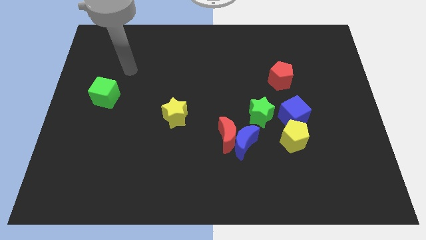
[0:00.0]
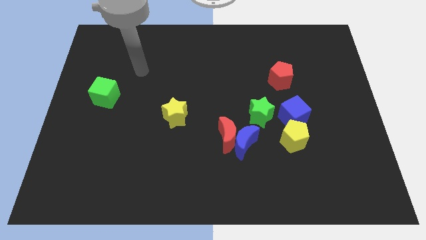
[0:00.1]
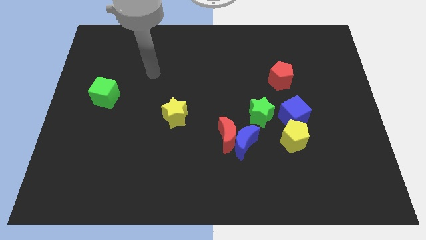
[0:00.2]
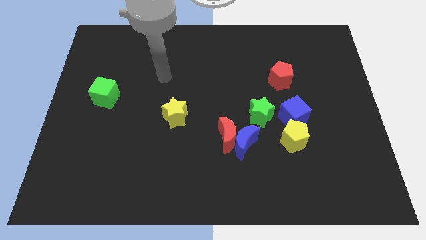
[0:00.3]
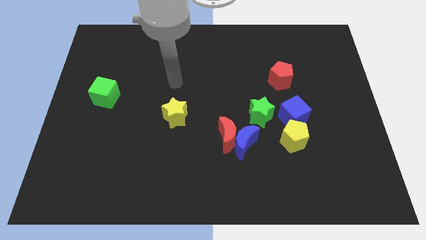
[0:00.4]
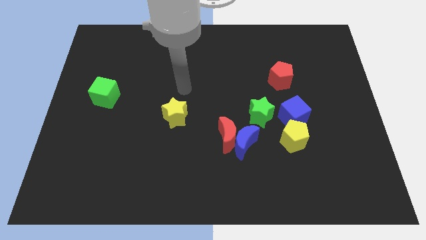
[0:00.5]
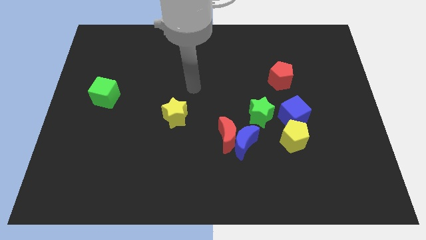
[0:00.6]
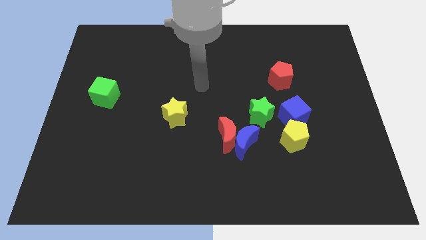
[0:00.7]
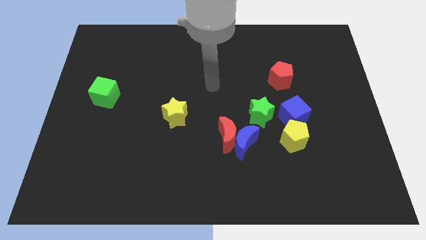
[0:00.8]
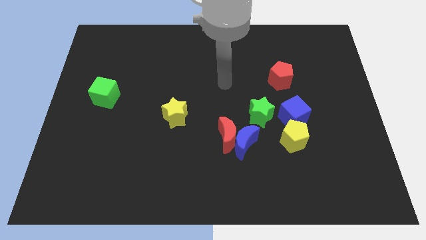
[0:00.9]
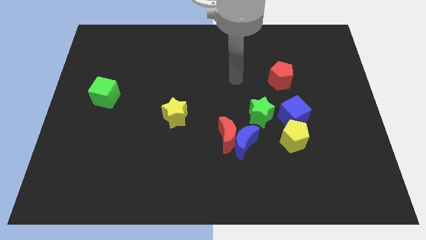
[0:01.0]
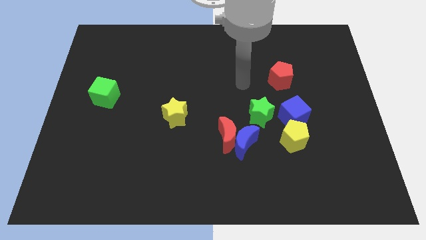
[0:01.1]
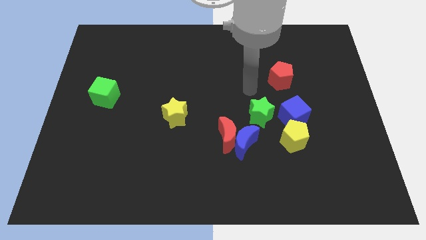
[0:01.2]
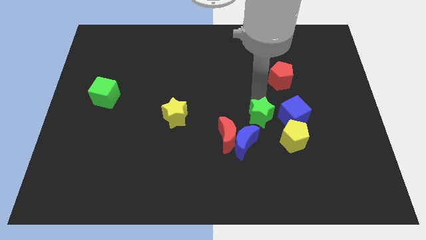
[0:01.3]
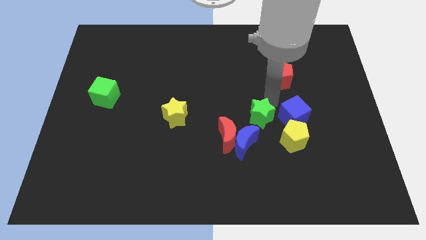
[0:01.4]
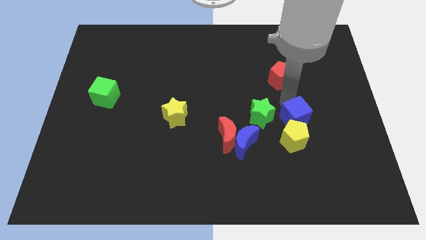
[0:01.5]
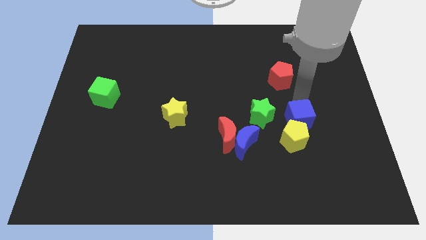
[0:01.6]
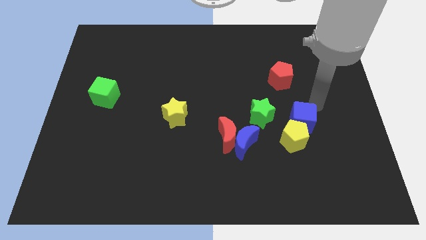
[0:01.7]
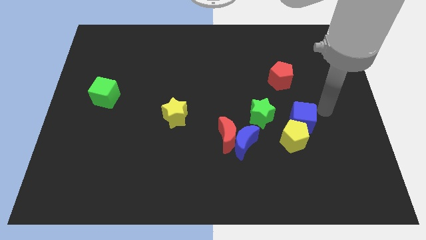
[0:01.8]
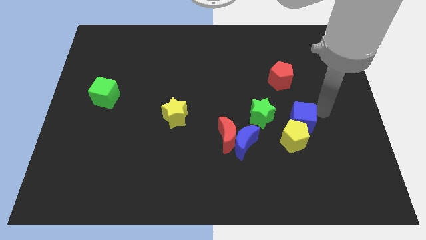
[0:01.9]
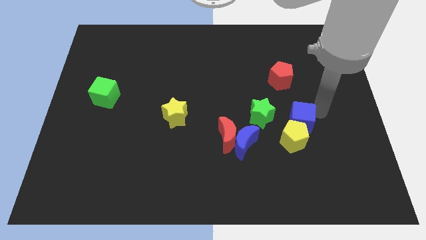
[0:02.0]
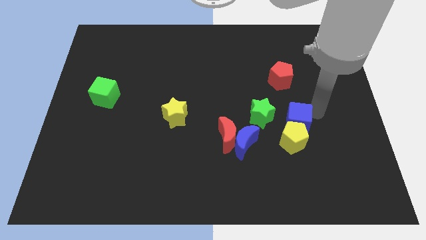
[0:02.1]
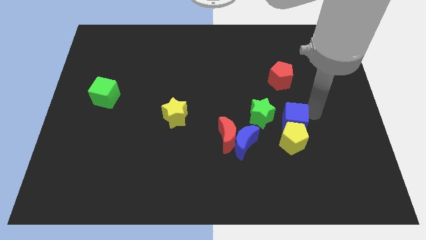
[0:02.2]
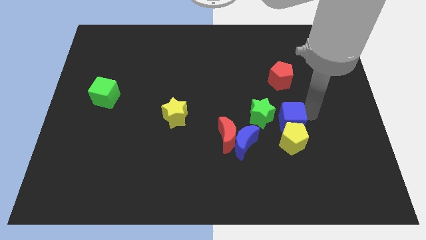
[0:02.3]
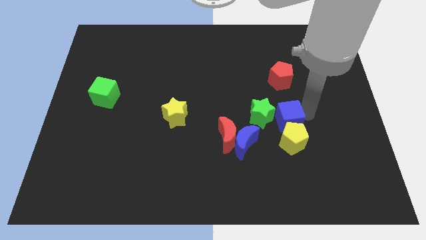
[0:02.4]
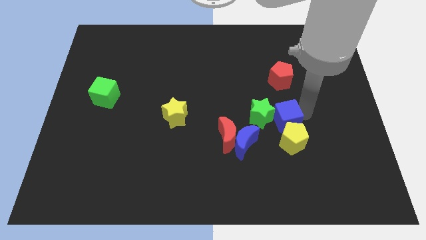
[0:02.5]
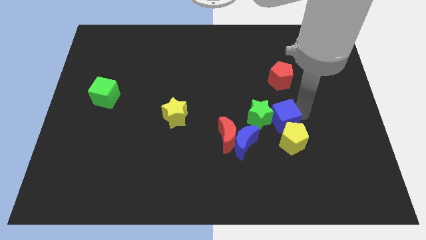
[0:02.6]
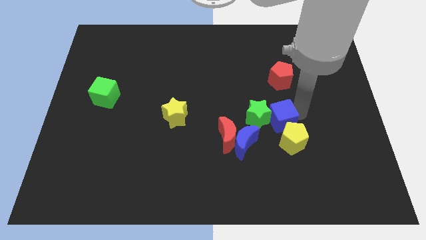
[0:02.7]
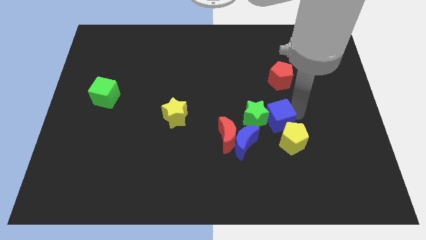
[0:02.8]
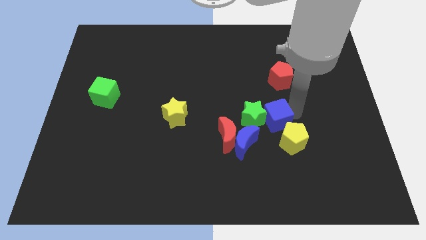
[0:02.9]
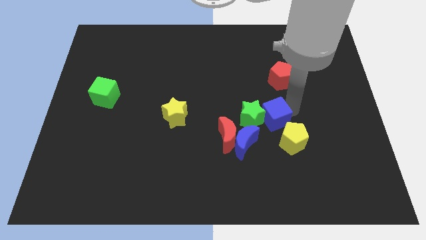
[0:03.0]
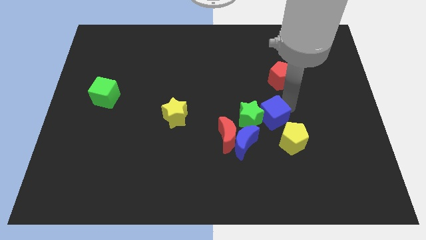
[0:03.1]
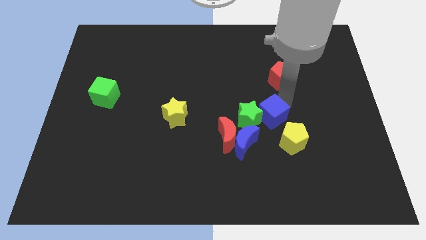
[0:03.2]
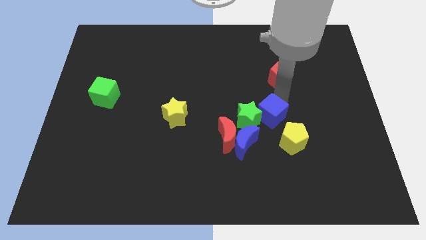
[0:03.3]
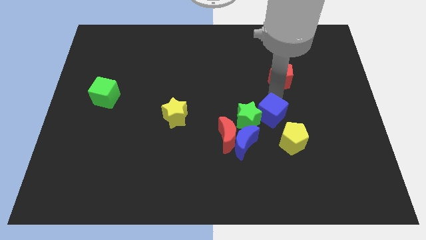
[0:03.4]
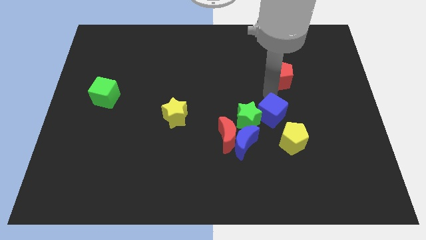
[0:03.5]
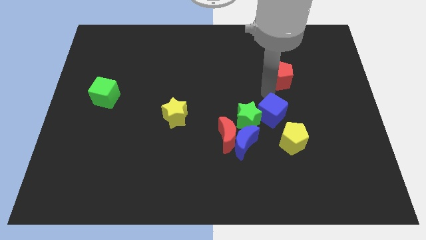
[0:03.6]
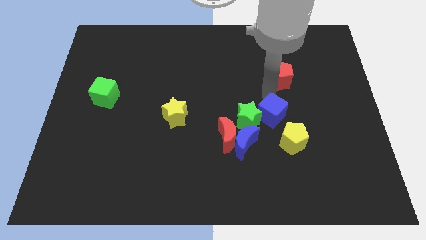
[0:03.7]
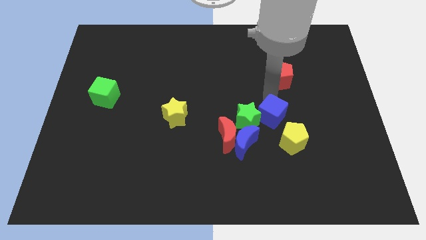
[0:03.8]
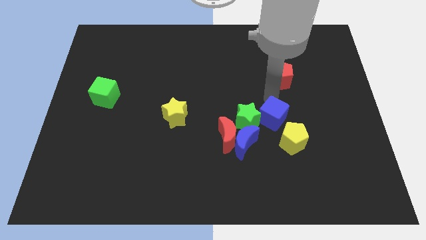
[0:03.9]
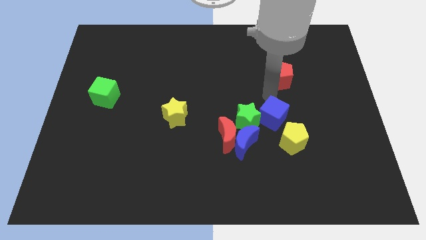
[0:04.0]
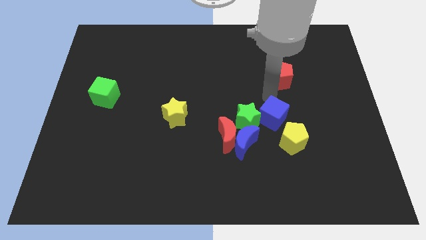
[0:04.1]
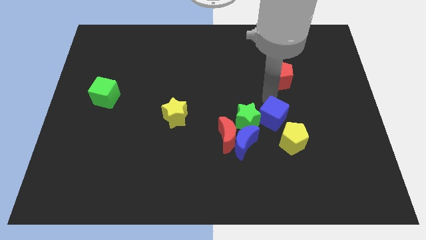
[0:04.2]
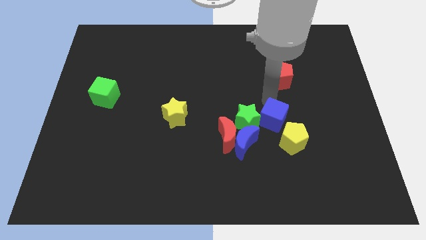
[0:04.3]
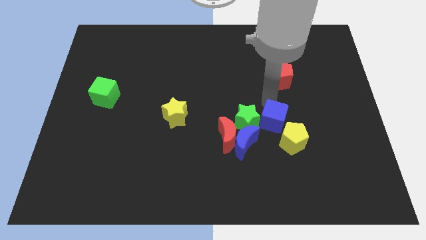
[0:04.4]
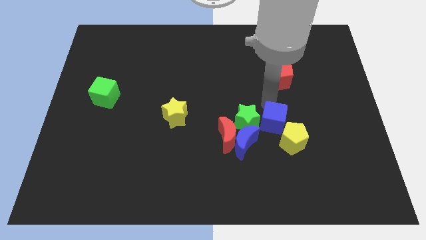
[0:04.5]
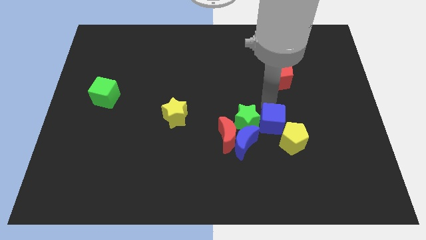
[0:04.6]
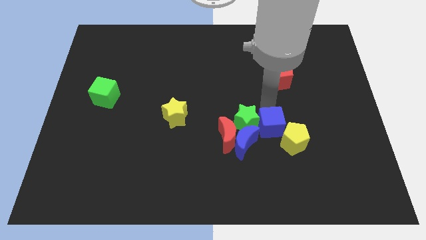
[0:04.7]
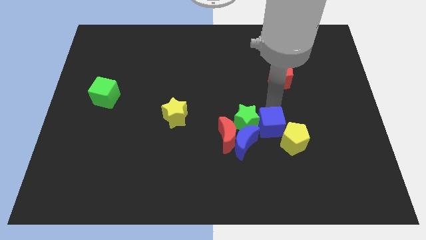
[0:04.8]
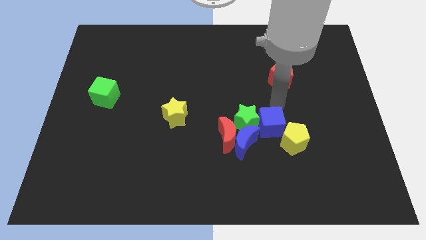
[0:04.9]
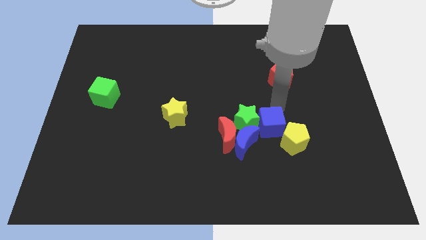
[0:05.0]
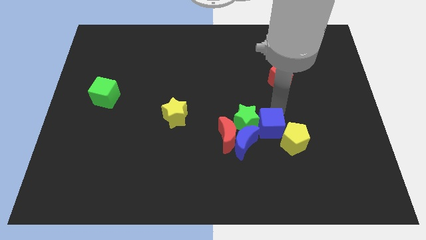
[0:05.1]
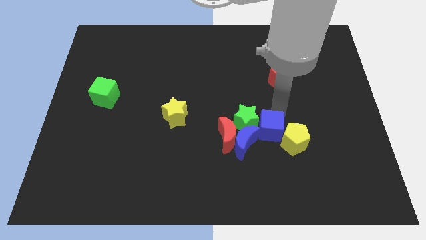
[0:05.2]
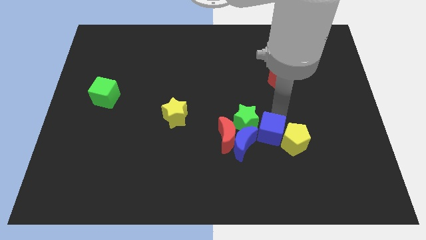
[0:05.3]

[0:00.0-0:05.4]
push the blue cube slightly downwards and then to the left

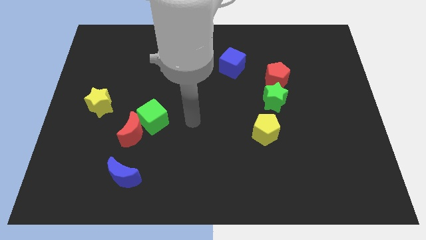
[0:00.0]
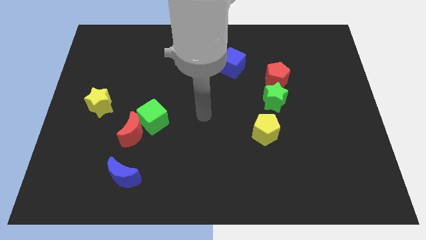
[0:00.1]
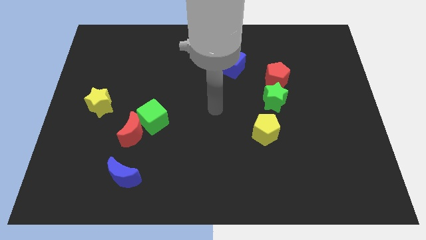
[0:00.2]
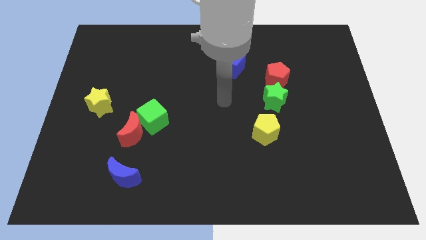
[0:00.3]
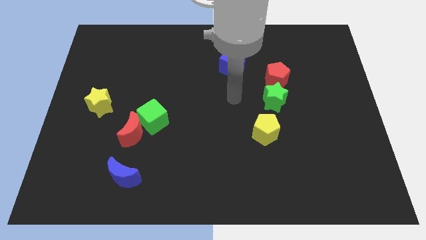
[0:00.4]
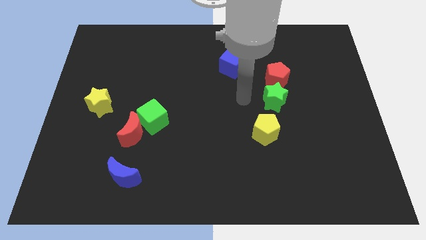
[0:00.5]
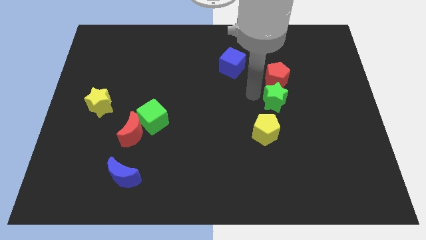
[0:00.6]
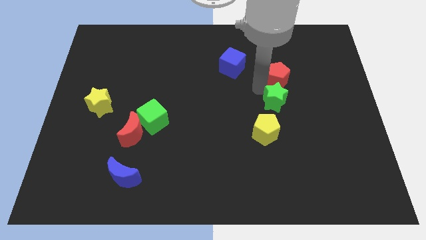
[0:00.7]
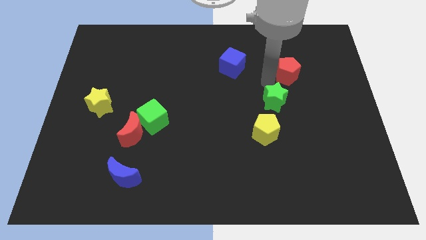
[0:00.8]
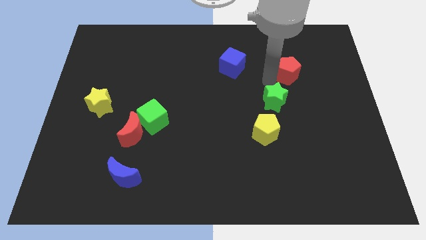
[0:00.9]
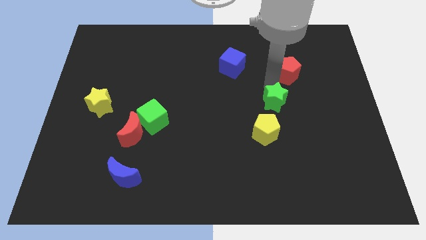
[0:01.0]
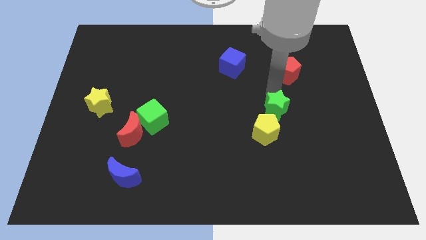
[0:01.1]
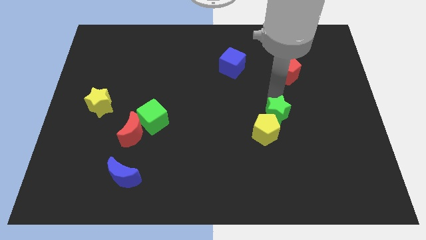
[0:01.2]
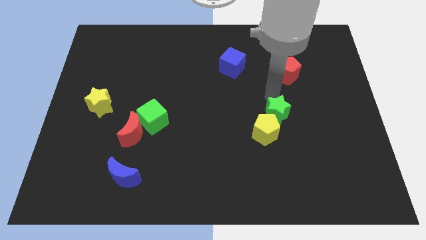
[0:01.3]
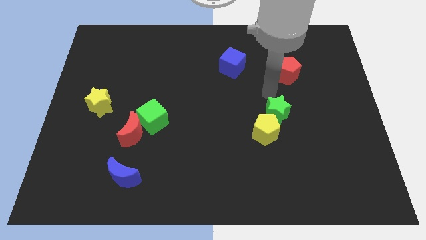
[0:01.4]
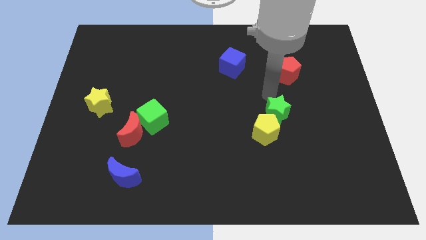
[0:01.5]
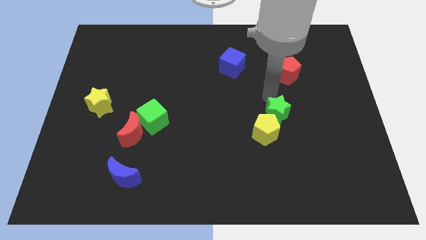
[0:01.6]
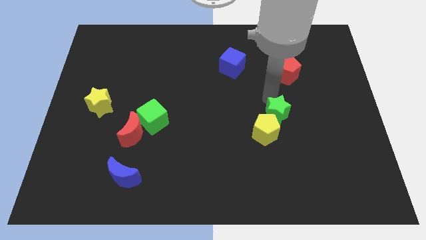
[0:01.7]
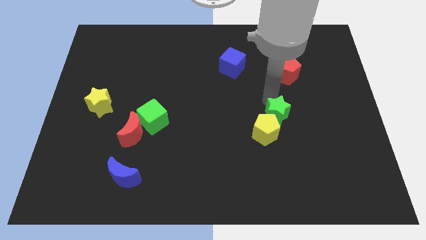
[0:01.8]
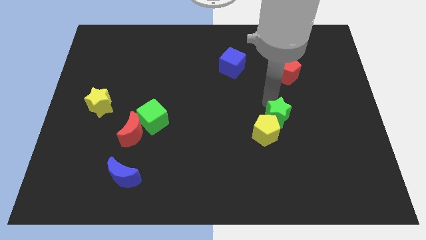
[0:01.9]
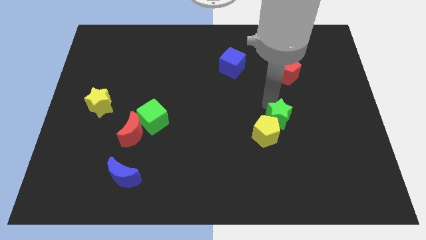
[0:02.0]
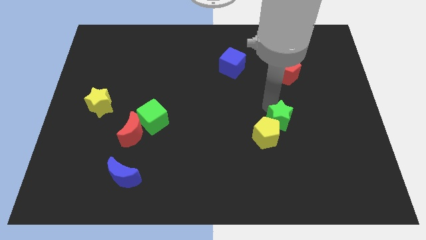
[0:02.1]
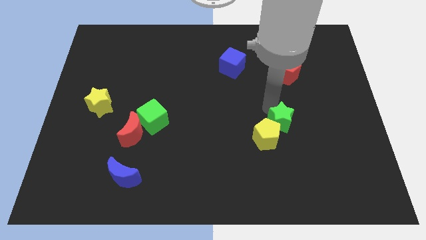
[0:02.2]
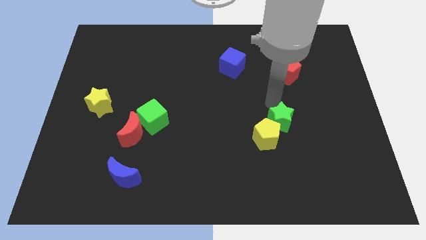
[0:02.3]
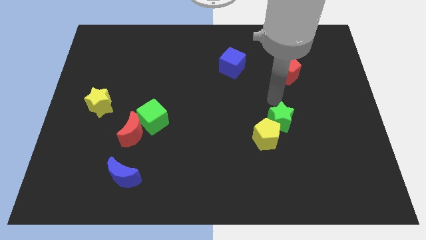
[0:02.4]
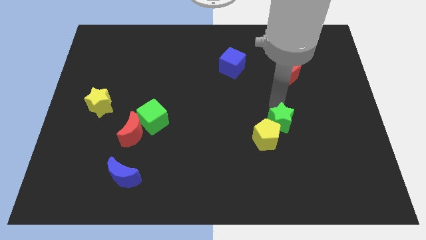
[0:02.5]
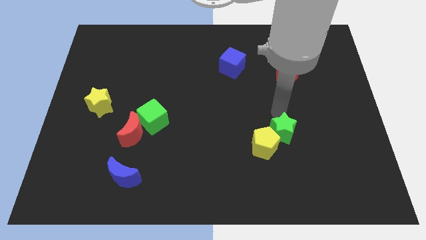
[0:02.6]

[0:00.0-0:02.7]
slightly move the green star downwards
